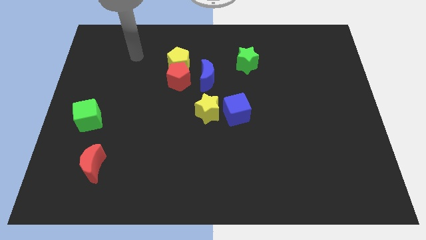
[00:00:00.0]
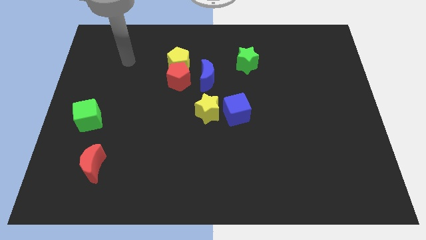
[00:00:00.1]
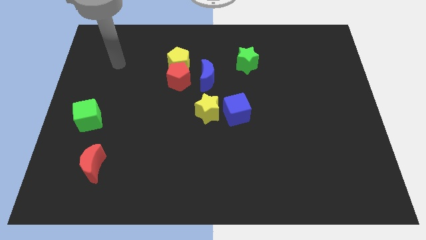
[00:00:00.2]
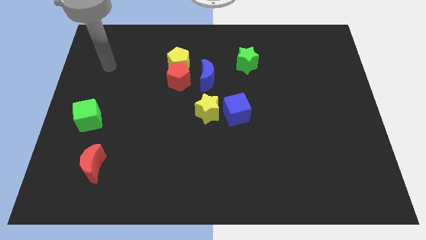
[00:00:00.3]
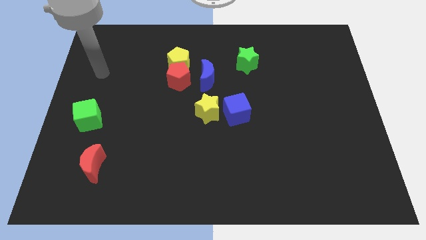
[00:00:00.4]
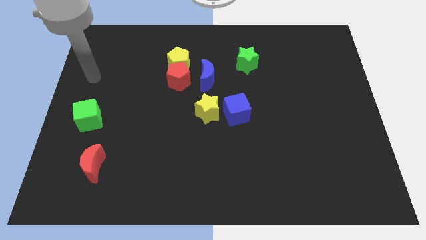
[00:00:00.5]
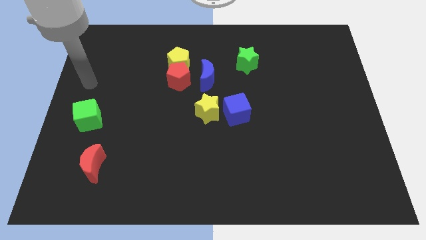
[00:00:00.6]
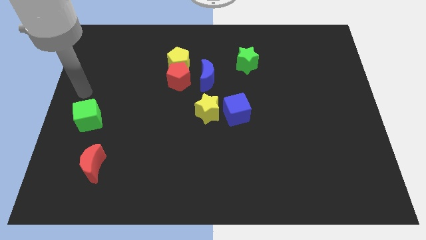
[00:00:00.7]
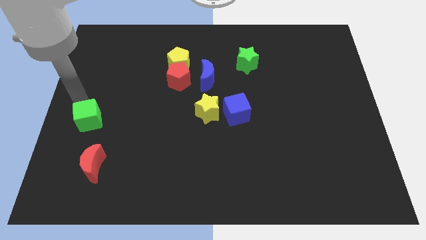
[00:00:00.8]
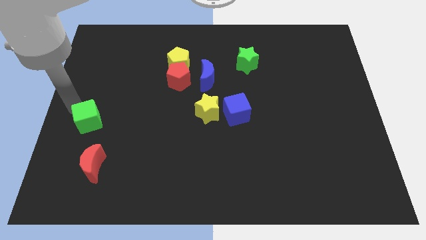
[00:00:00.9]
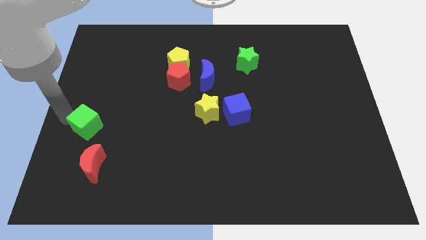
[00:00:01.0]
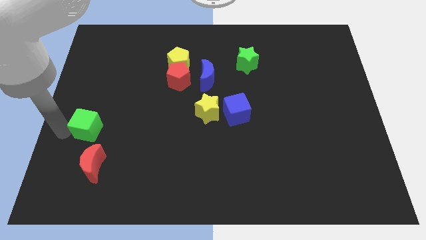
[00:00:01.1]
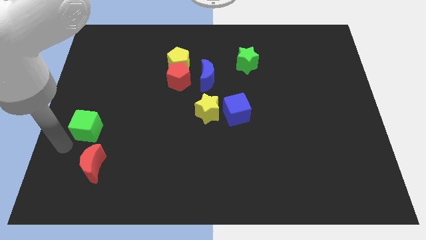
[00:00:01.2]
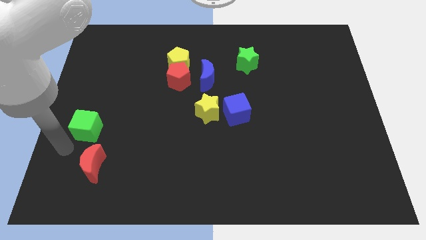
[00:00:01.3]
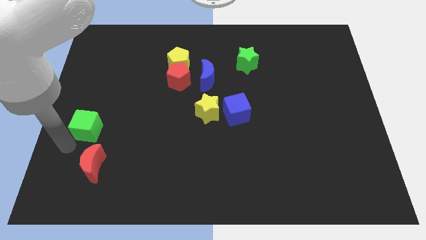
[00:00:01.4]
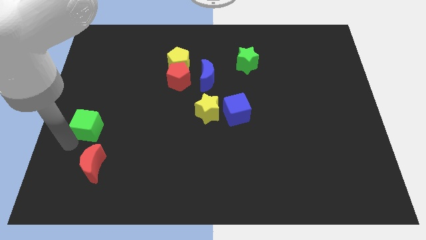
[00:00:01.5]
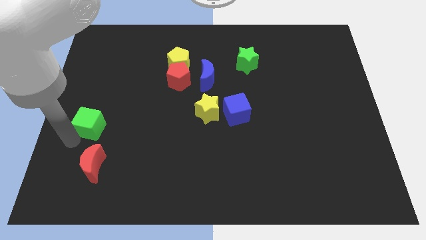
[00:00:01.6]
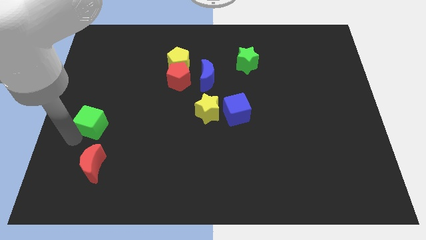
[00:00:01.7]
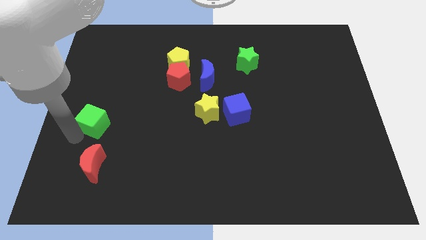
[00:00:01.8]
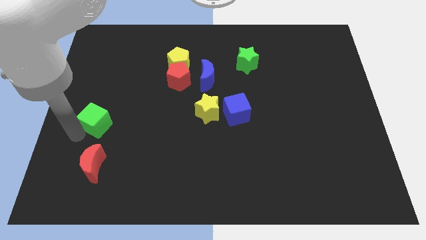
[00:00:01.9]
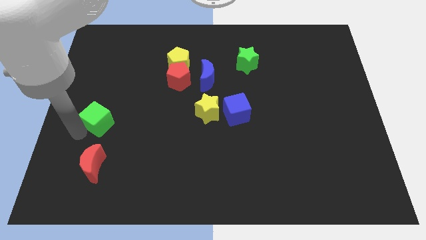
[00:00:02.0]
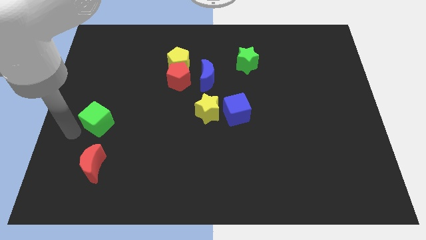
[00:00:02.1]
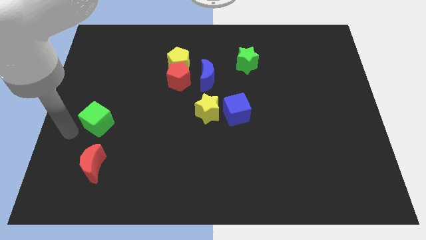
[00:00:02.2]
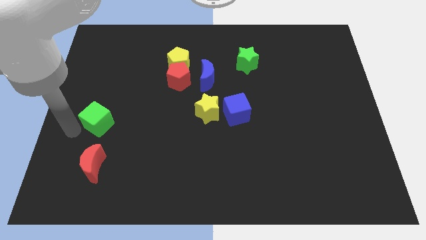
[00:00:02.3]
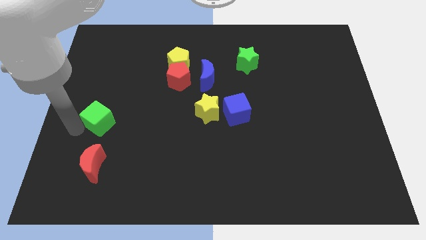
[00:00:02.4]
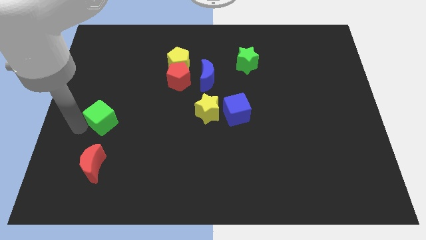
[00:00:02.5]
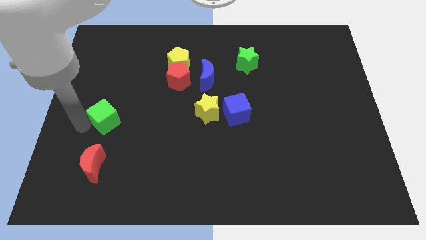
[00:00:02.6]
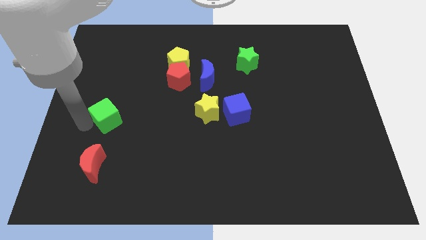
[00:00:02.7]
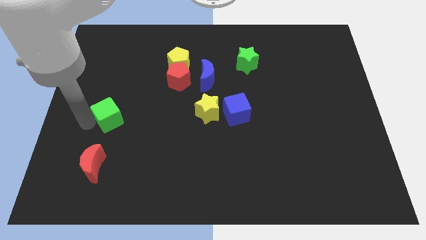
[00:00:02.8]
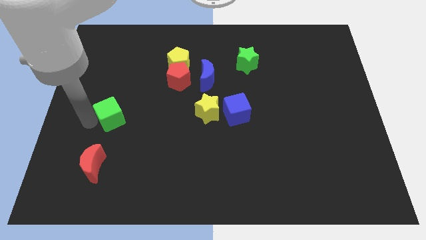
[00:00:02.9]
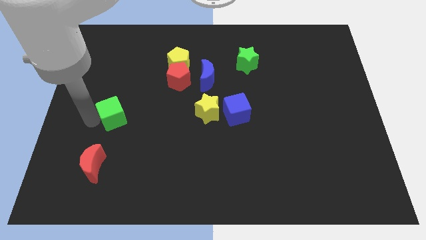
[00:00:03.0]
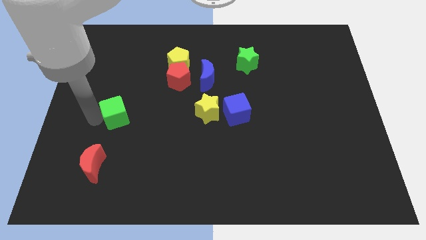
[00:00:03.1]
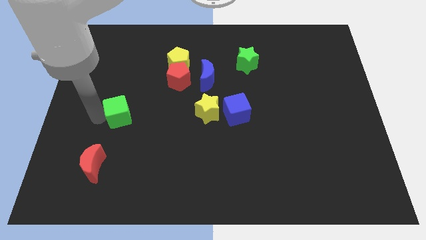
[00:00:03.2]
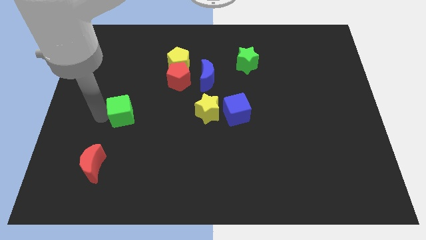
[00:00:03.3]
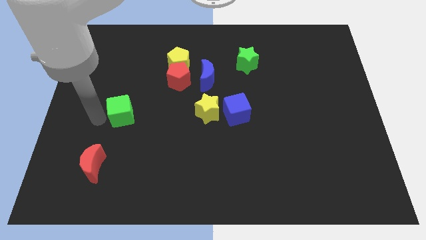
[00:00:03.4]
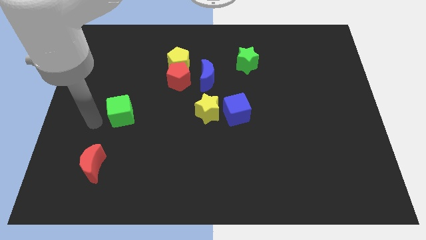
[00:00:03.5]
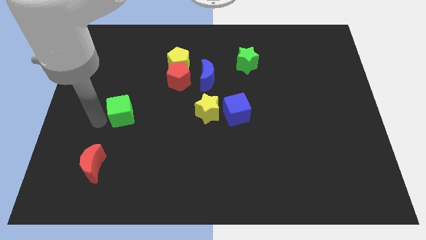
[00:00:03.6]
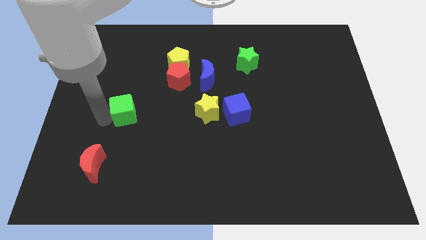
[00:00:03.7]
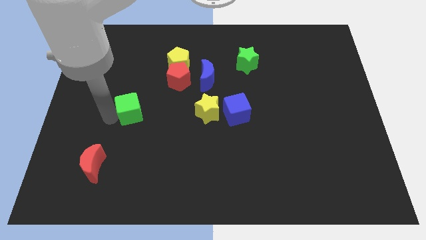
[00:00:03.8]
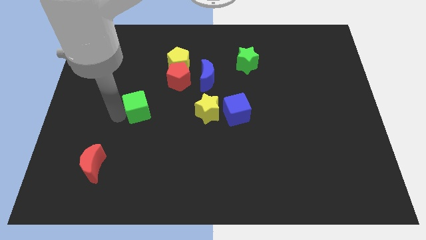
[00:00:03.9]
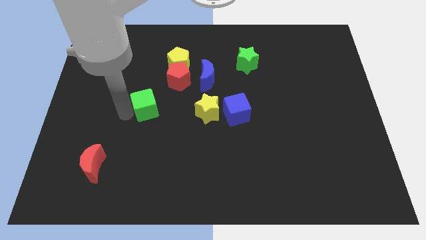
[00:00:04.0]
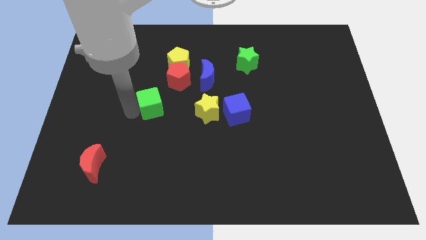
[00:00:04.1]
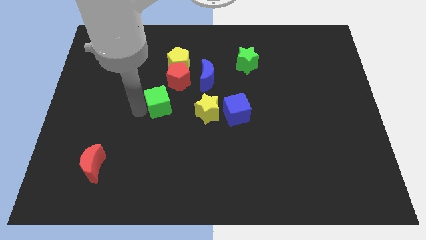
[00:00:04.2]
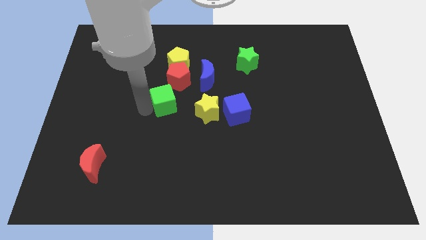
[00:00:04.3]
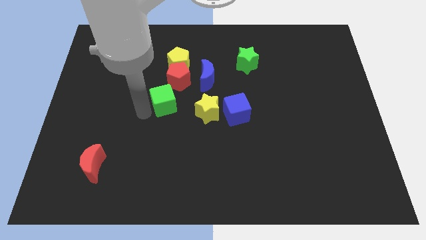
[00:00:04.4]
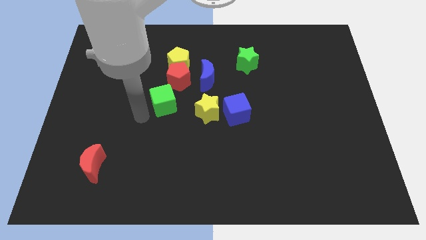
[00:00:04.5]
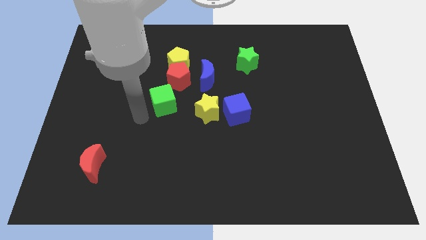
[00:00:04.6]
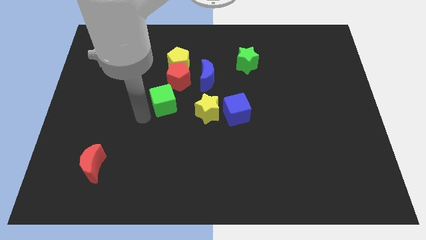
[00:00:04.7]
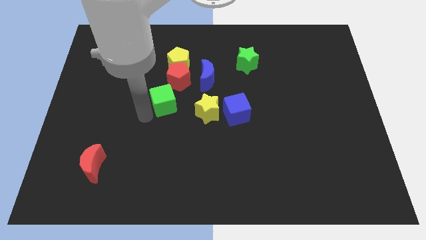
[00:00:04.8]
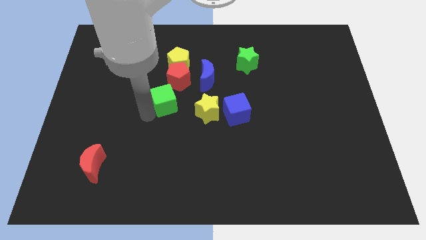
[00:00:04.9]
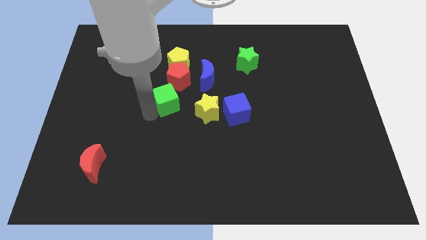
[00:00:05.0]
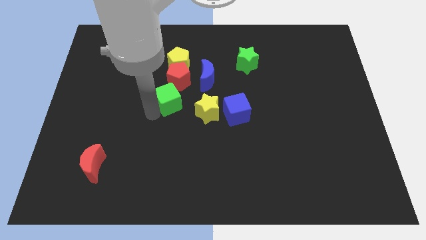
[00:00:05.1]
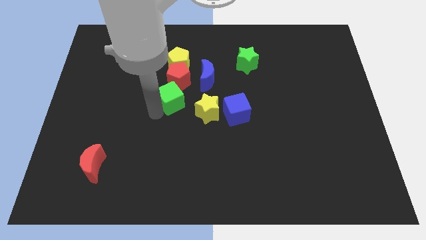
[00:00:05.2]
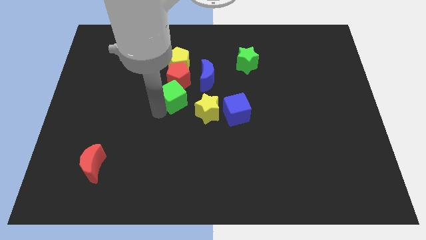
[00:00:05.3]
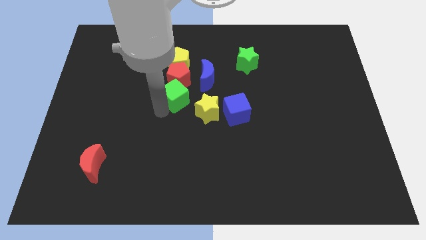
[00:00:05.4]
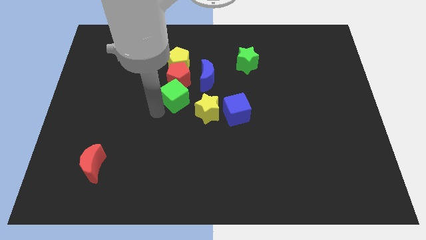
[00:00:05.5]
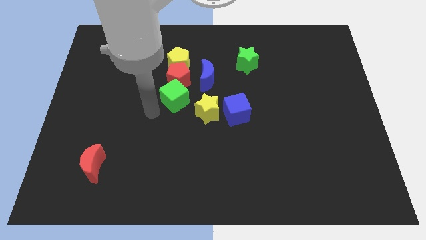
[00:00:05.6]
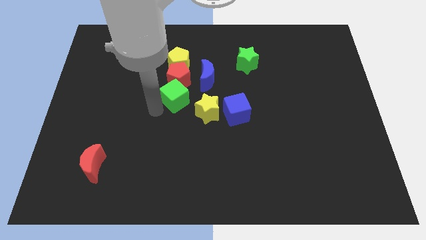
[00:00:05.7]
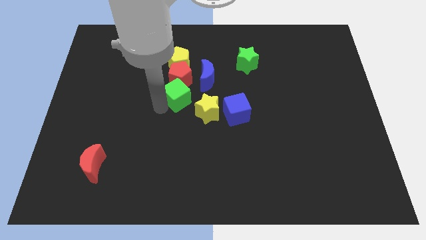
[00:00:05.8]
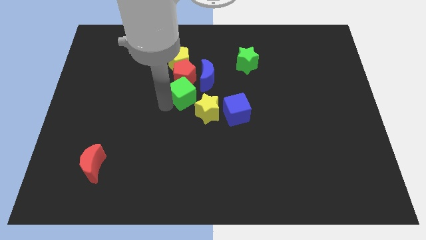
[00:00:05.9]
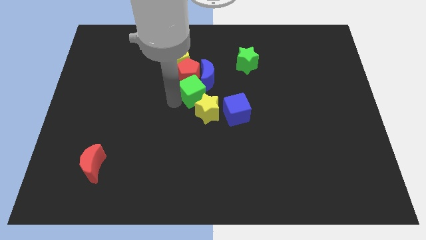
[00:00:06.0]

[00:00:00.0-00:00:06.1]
slide the green cube close to the blue moon

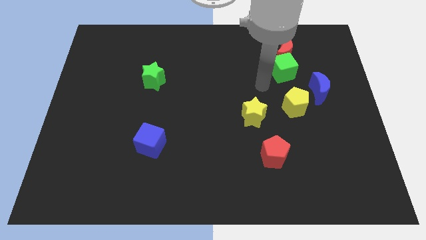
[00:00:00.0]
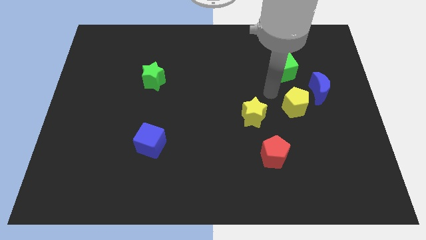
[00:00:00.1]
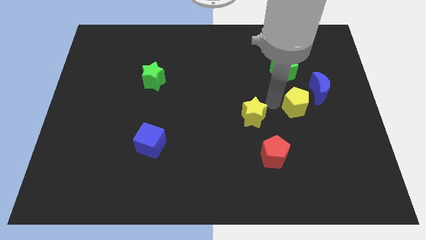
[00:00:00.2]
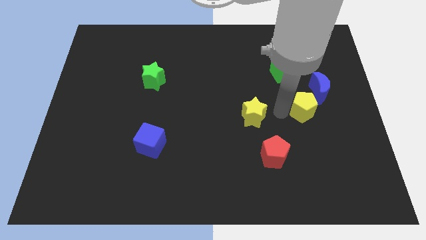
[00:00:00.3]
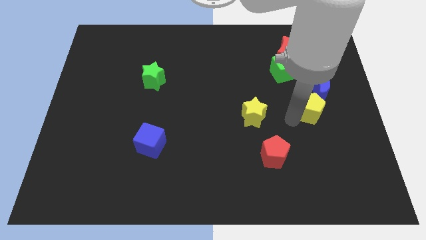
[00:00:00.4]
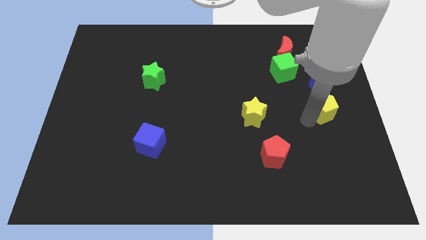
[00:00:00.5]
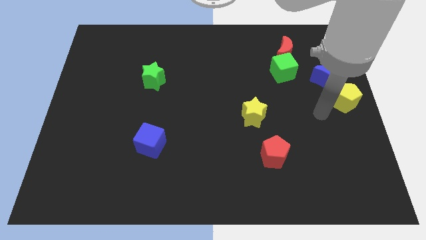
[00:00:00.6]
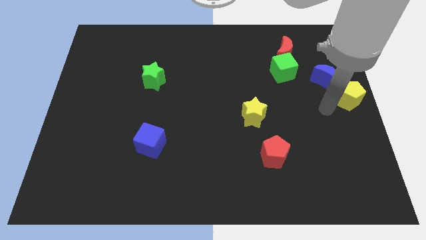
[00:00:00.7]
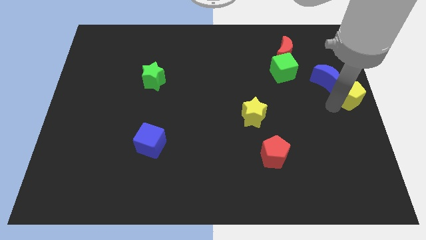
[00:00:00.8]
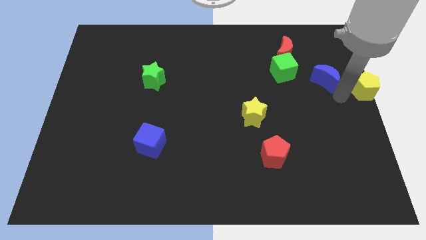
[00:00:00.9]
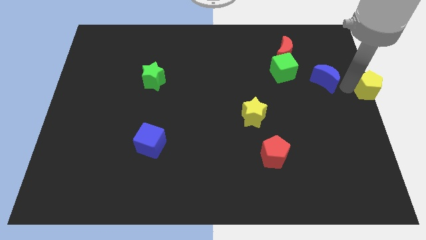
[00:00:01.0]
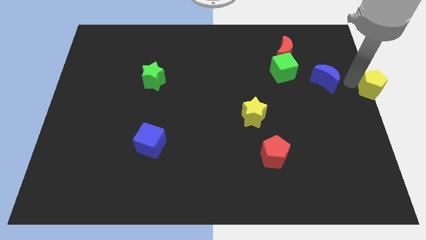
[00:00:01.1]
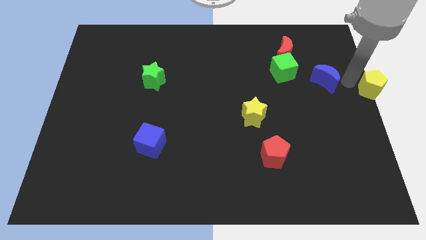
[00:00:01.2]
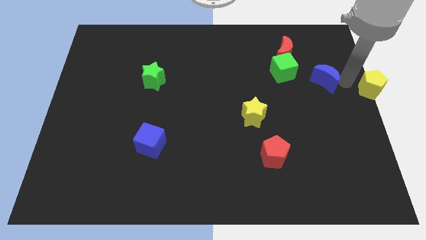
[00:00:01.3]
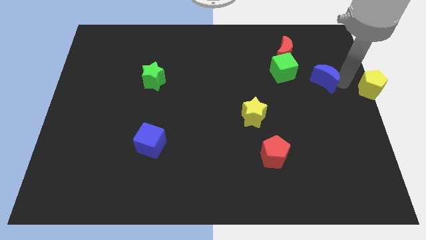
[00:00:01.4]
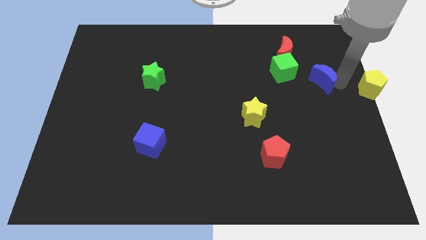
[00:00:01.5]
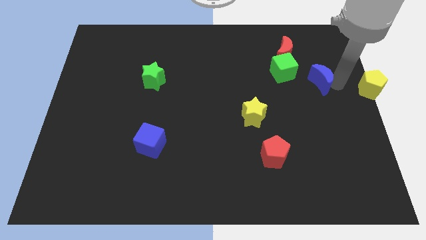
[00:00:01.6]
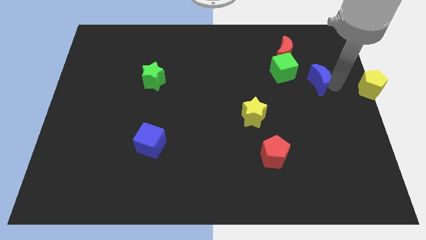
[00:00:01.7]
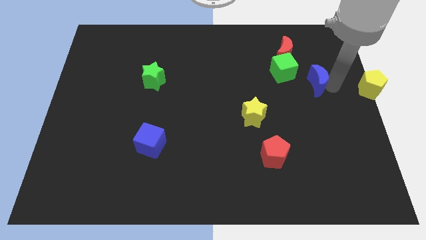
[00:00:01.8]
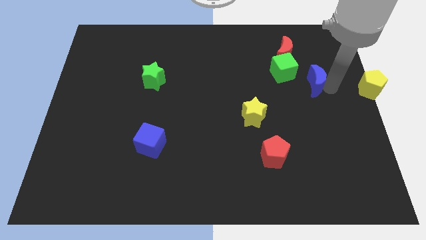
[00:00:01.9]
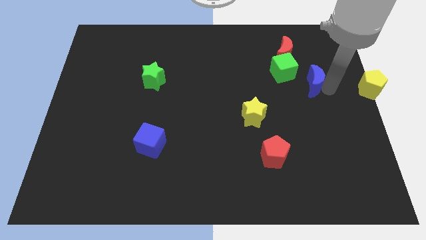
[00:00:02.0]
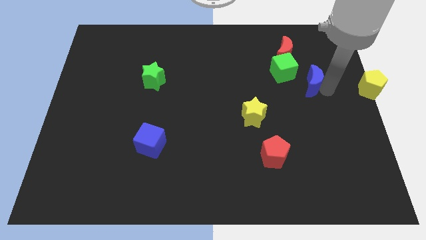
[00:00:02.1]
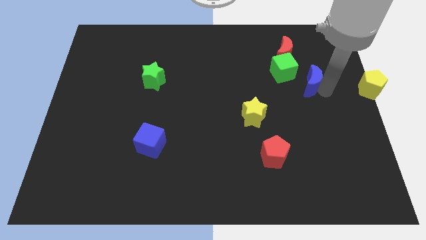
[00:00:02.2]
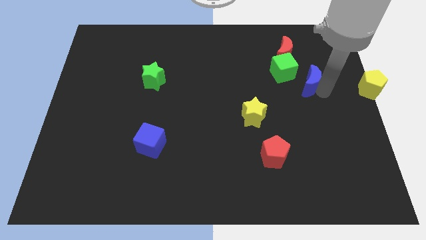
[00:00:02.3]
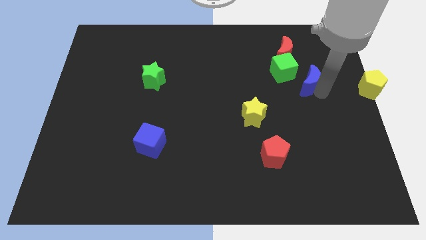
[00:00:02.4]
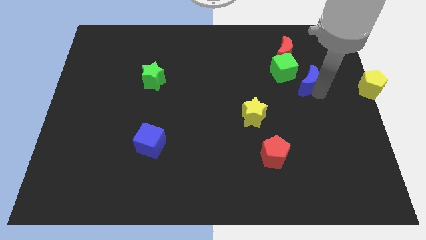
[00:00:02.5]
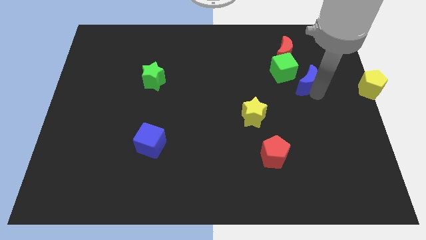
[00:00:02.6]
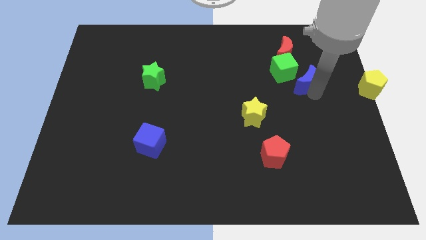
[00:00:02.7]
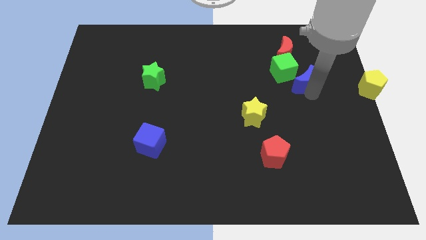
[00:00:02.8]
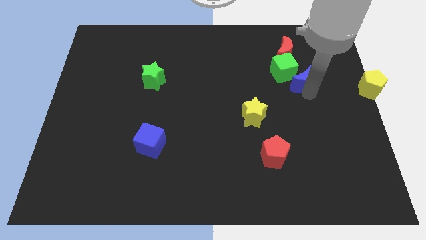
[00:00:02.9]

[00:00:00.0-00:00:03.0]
move the blue moon close to the green cube
